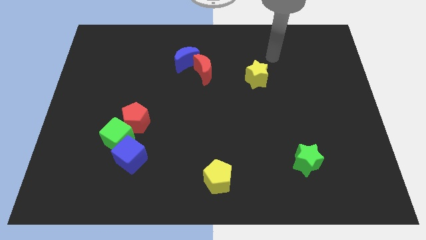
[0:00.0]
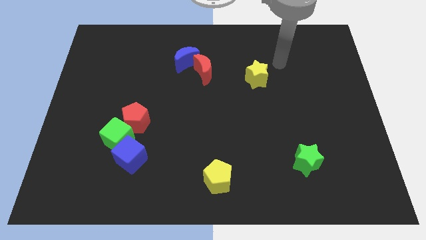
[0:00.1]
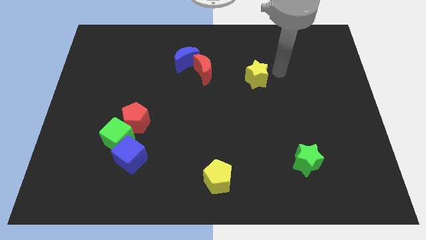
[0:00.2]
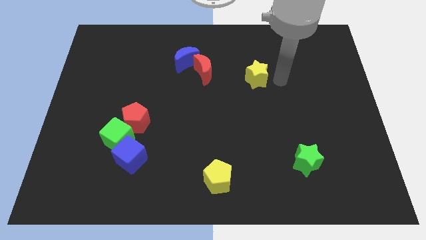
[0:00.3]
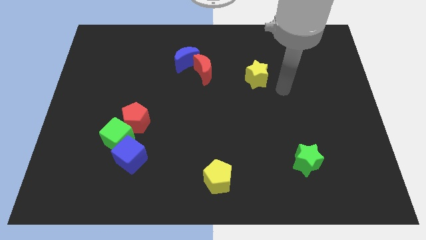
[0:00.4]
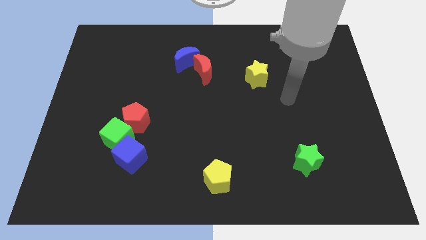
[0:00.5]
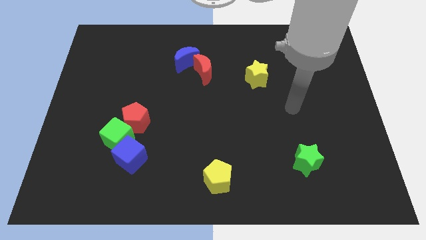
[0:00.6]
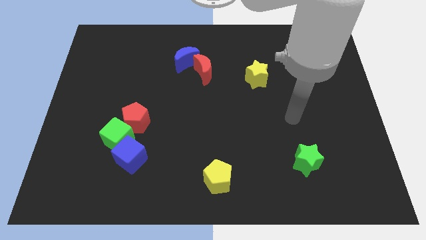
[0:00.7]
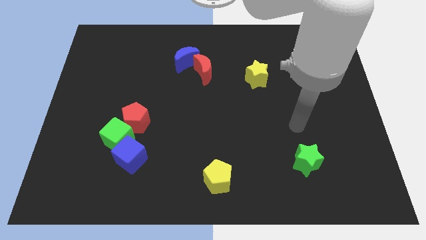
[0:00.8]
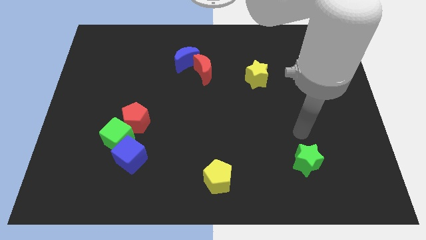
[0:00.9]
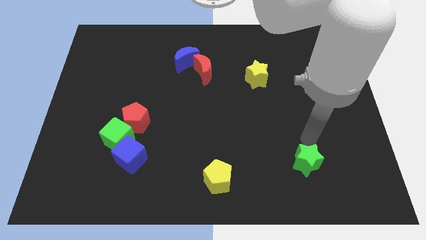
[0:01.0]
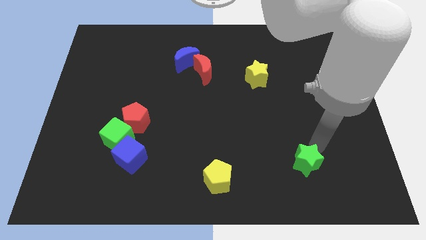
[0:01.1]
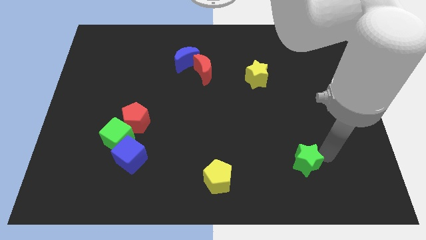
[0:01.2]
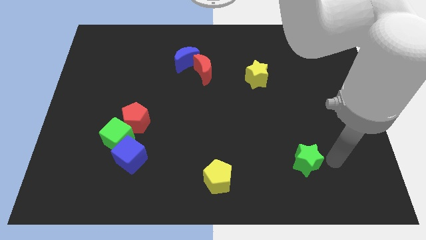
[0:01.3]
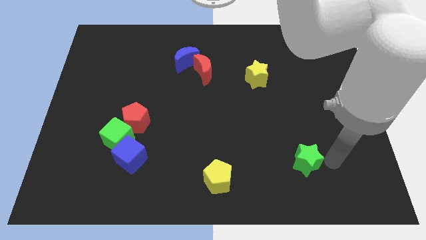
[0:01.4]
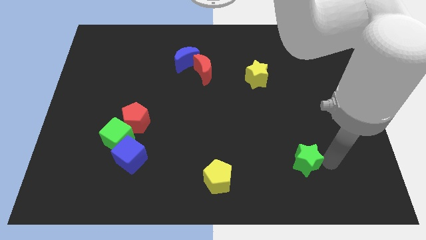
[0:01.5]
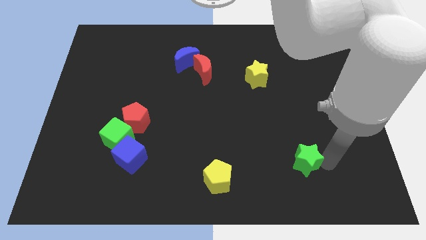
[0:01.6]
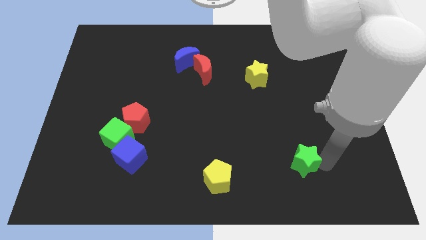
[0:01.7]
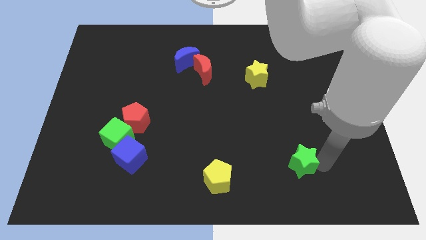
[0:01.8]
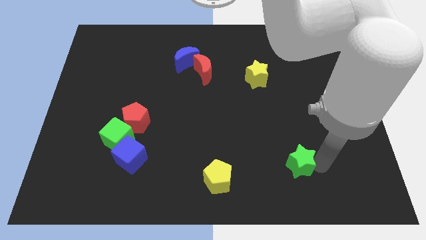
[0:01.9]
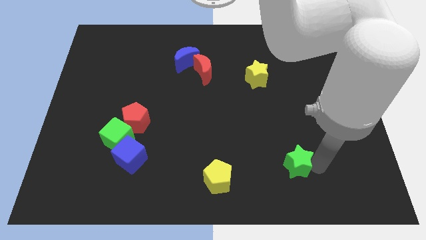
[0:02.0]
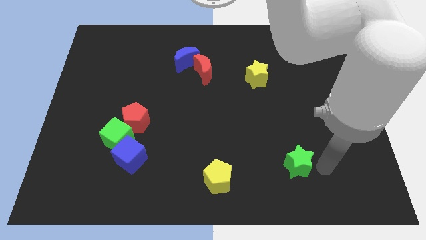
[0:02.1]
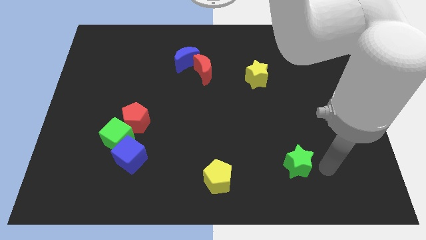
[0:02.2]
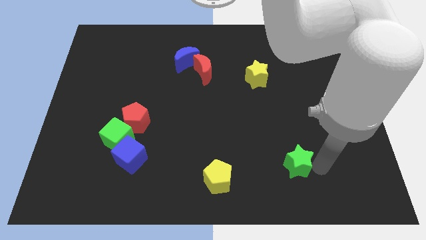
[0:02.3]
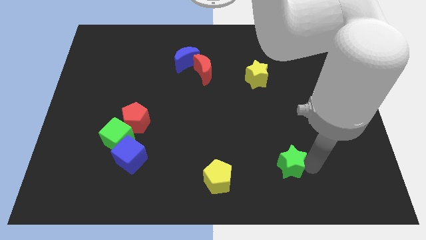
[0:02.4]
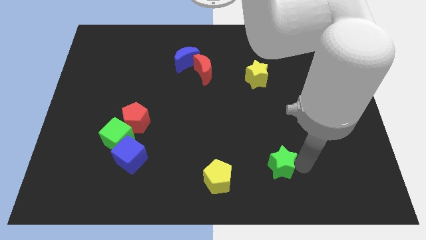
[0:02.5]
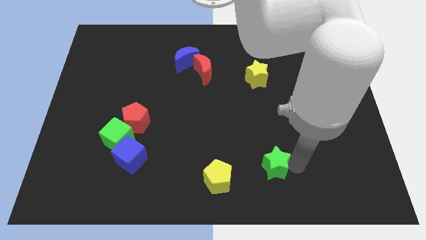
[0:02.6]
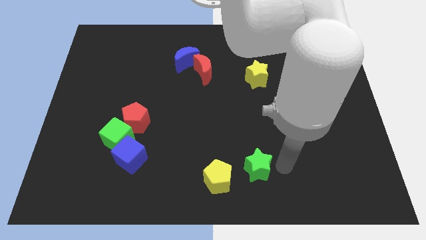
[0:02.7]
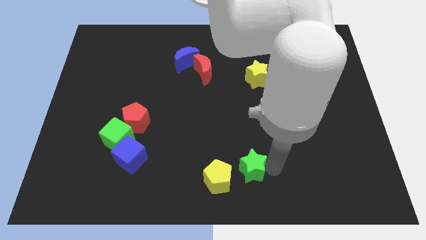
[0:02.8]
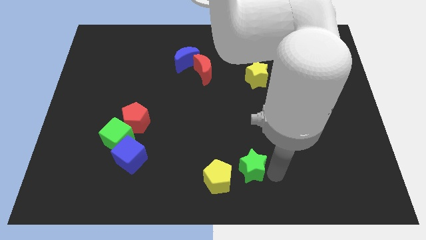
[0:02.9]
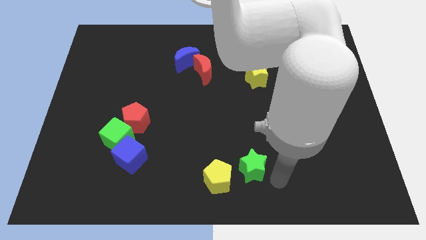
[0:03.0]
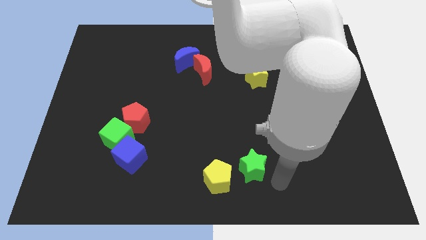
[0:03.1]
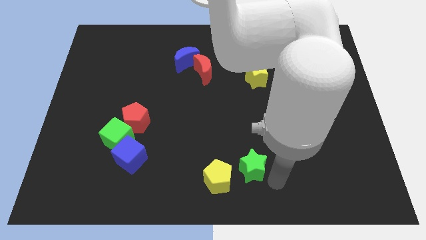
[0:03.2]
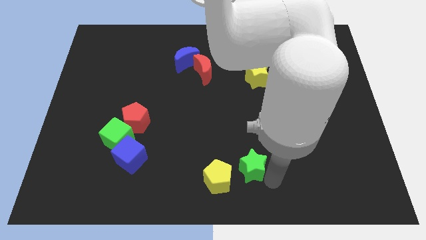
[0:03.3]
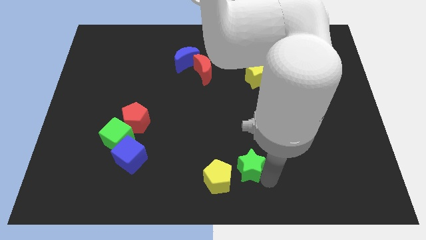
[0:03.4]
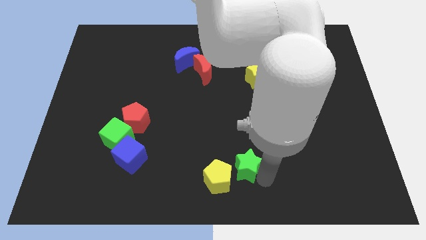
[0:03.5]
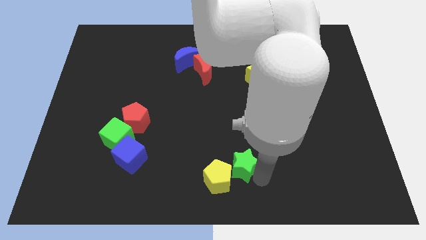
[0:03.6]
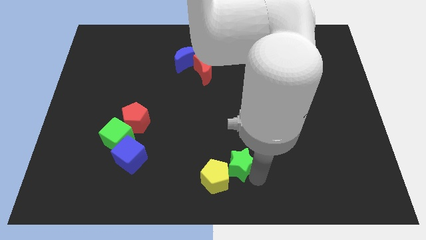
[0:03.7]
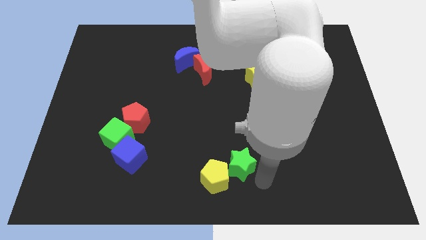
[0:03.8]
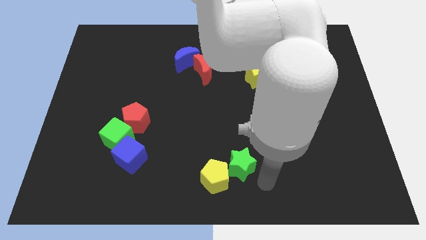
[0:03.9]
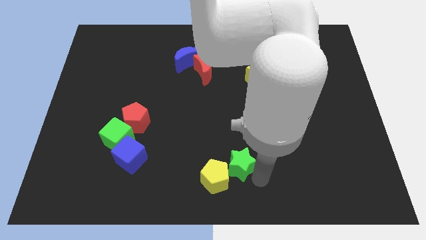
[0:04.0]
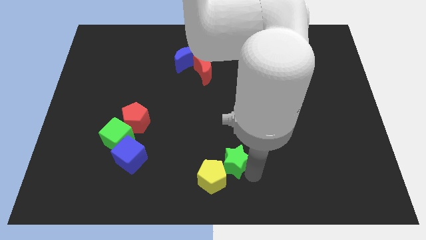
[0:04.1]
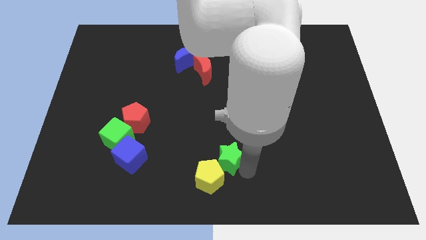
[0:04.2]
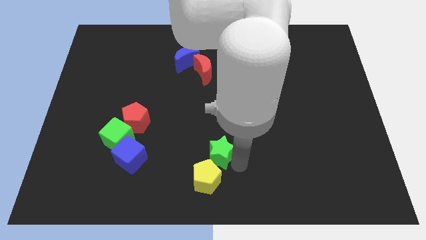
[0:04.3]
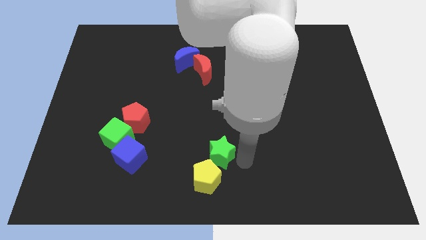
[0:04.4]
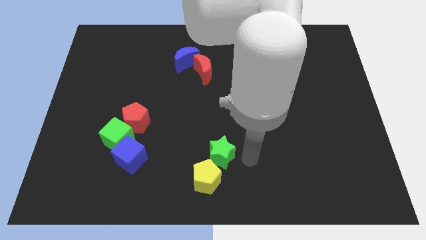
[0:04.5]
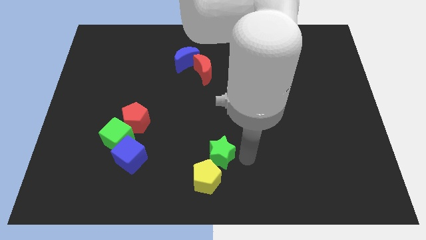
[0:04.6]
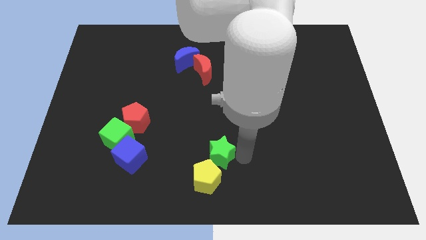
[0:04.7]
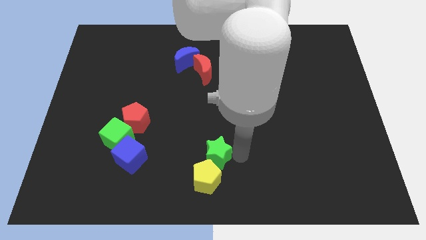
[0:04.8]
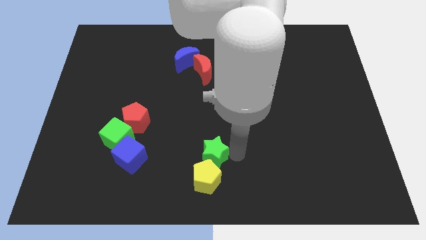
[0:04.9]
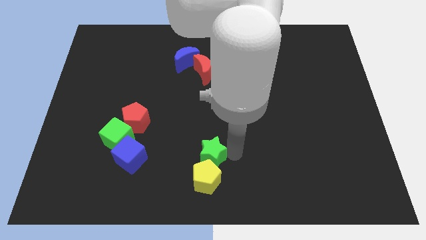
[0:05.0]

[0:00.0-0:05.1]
push the green star to the left

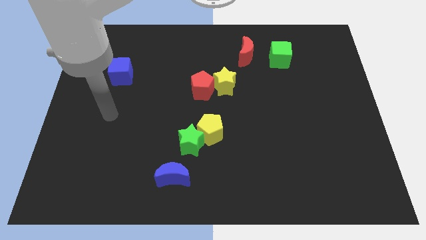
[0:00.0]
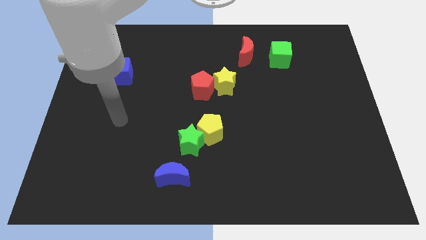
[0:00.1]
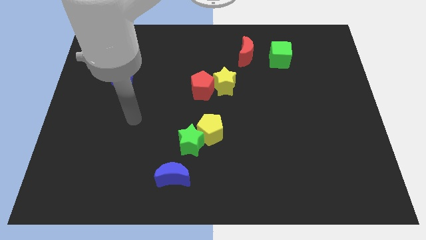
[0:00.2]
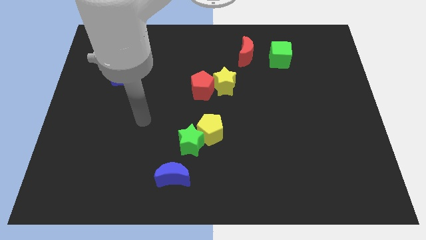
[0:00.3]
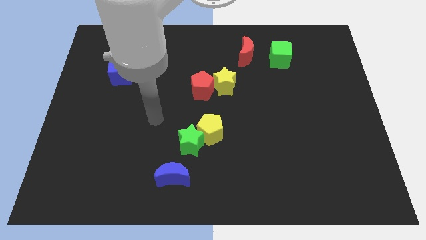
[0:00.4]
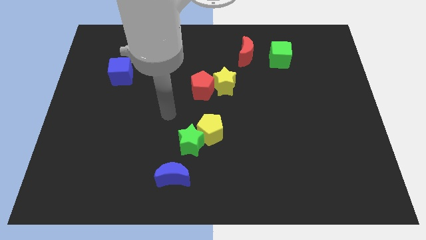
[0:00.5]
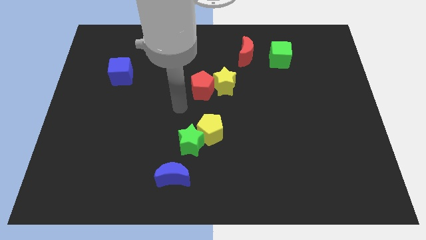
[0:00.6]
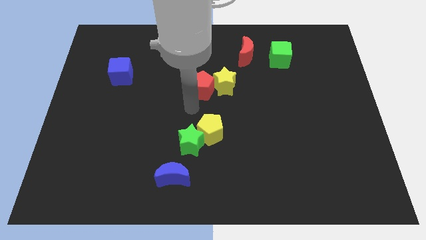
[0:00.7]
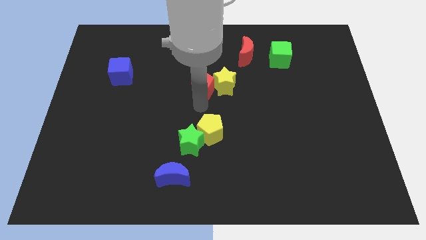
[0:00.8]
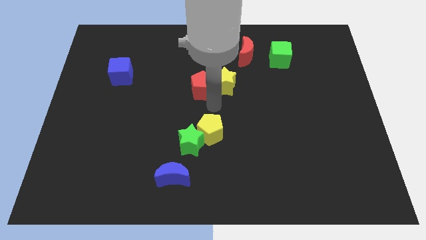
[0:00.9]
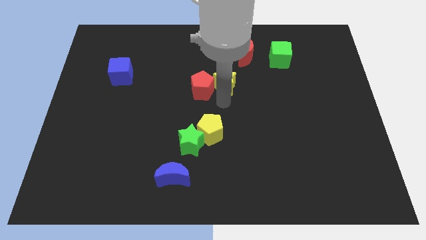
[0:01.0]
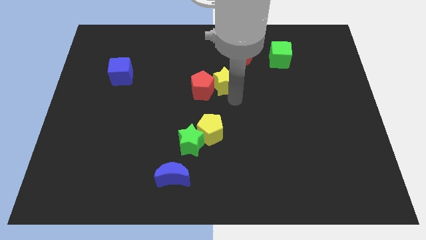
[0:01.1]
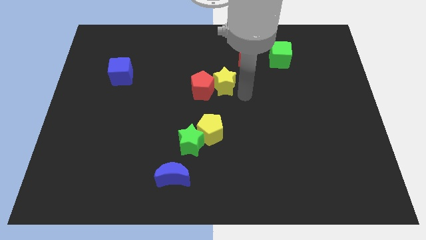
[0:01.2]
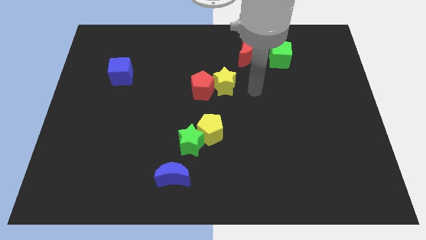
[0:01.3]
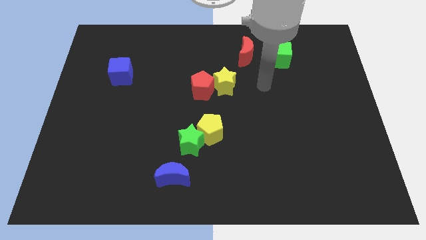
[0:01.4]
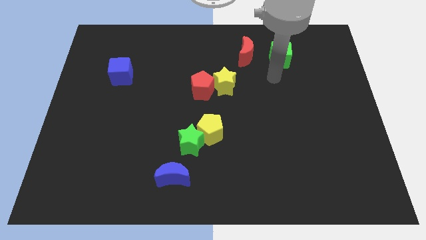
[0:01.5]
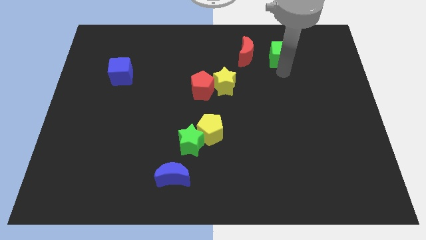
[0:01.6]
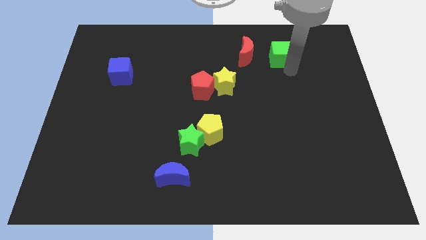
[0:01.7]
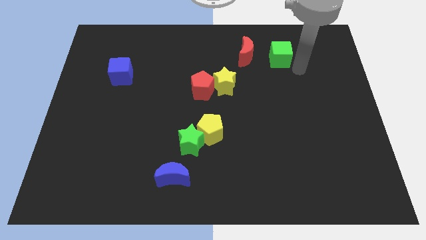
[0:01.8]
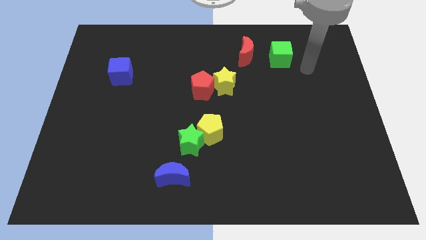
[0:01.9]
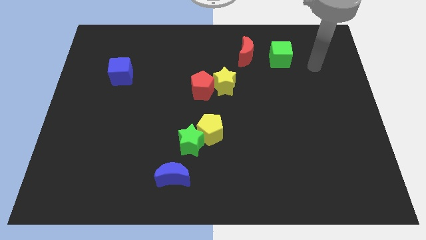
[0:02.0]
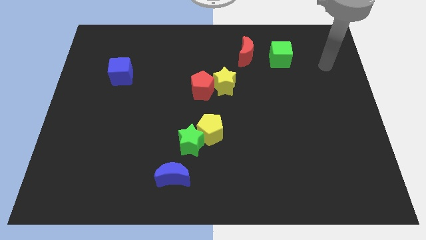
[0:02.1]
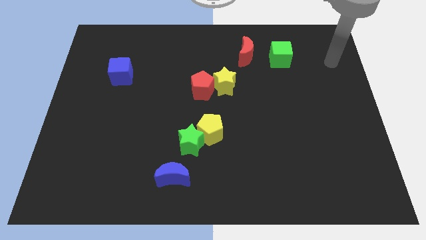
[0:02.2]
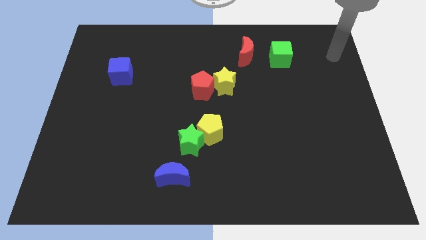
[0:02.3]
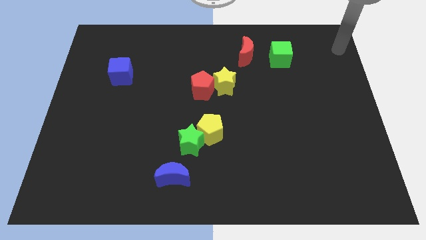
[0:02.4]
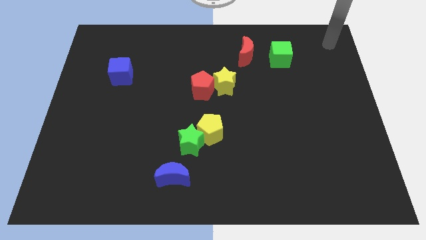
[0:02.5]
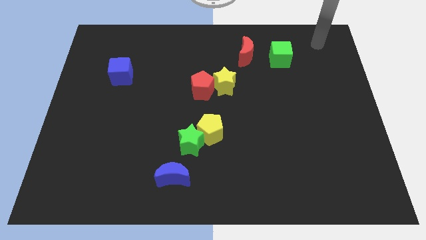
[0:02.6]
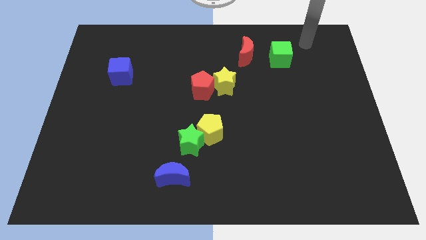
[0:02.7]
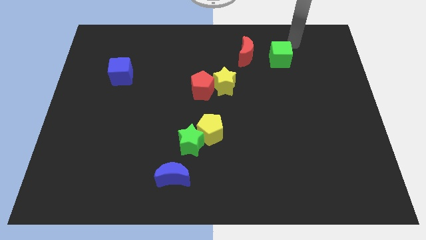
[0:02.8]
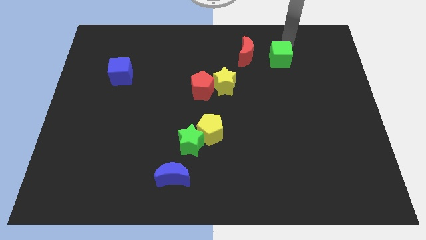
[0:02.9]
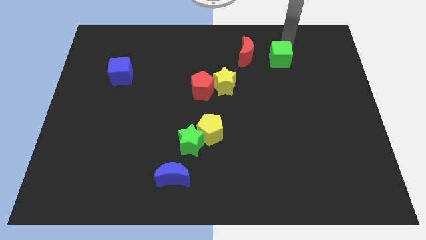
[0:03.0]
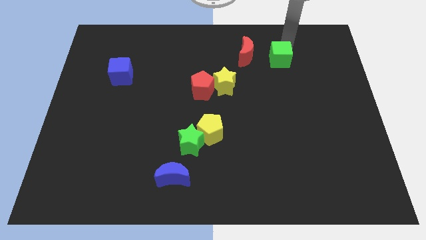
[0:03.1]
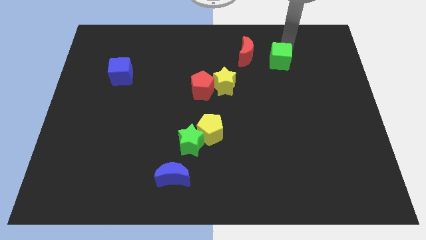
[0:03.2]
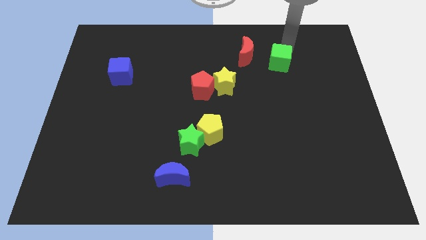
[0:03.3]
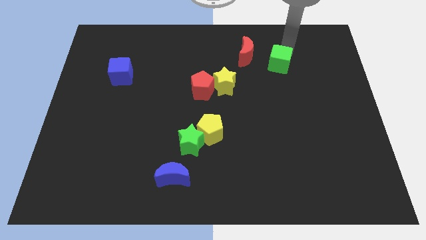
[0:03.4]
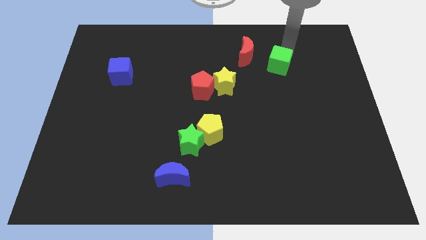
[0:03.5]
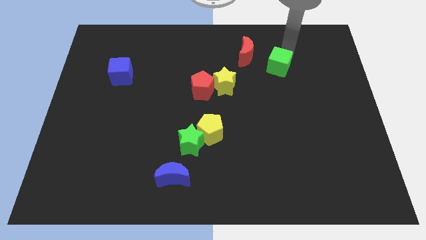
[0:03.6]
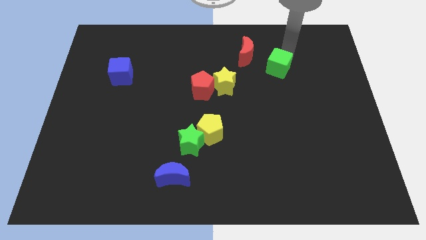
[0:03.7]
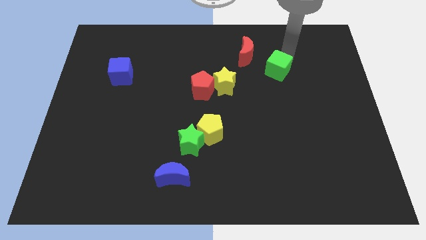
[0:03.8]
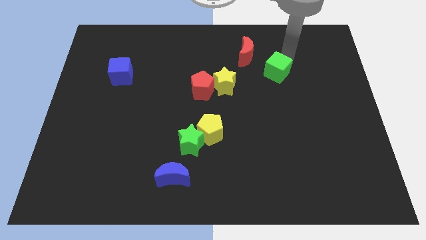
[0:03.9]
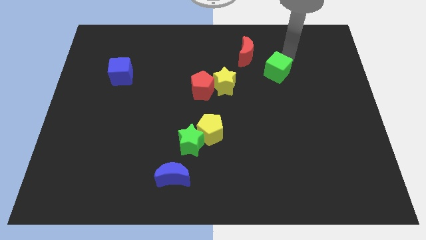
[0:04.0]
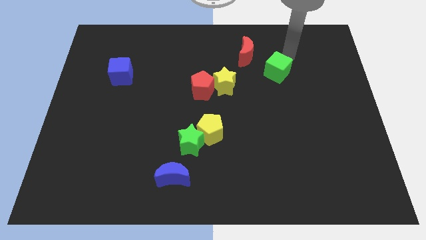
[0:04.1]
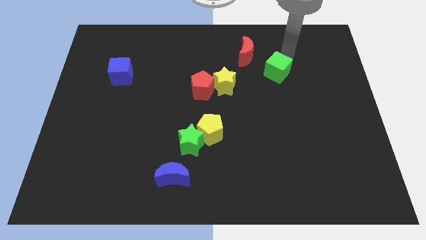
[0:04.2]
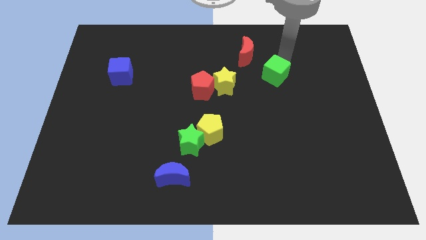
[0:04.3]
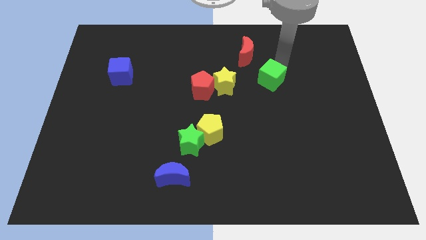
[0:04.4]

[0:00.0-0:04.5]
slightly slide the green cube diagonally down and left
